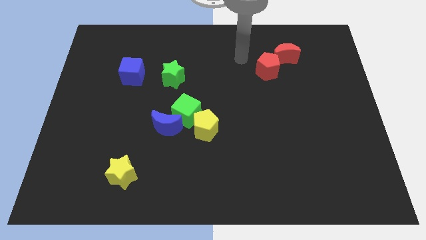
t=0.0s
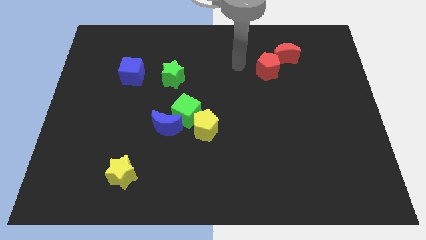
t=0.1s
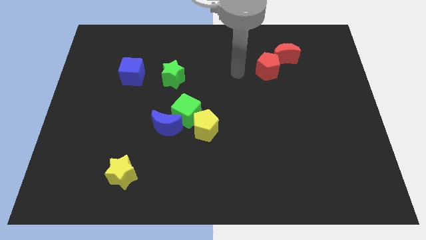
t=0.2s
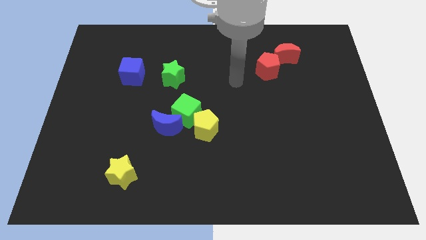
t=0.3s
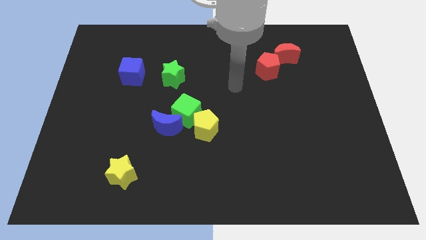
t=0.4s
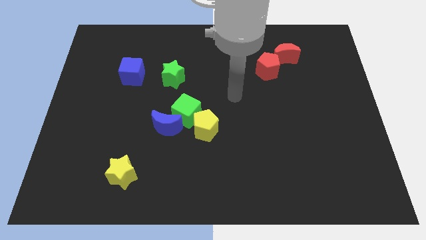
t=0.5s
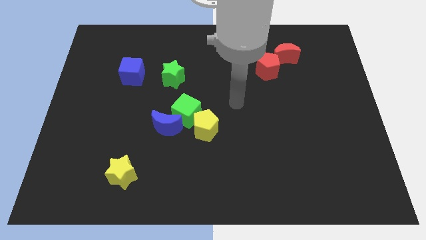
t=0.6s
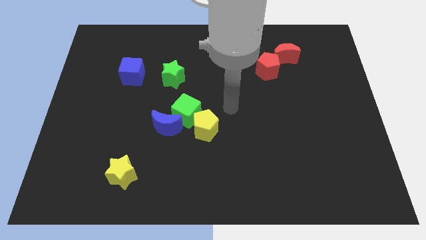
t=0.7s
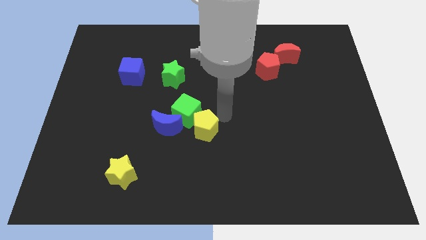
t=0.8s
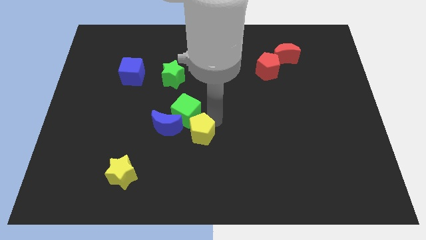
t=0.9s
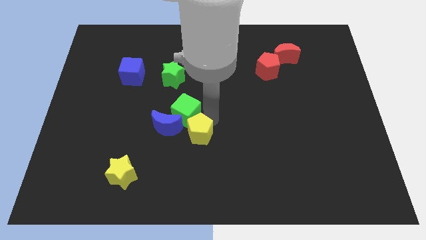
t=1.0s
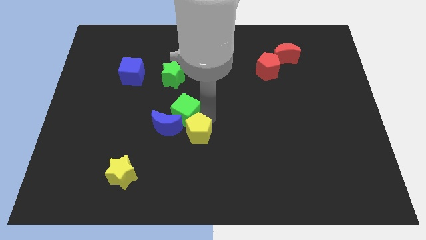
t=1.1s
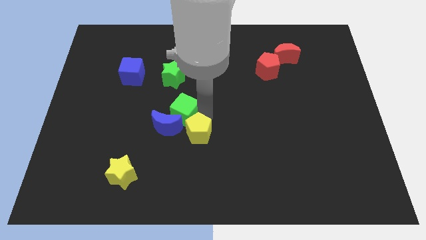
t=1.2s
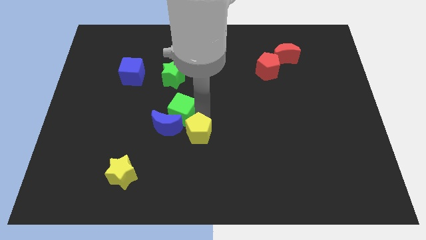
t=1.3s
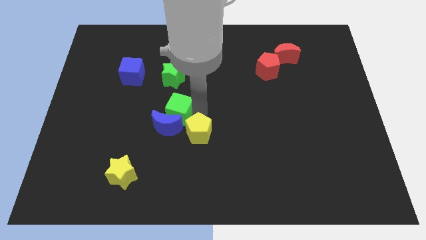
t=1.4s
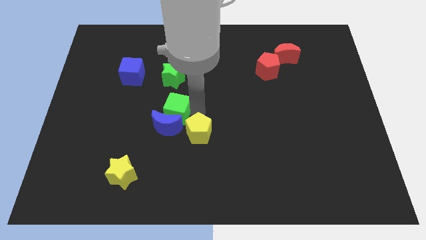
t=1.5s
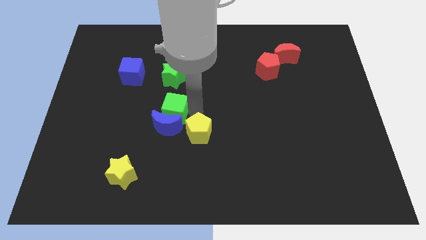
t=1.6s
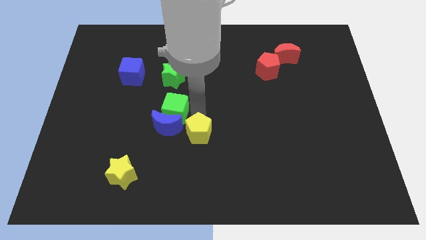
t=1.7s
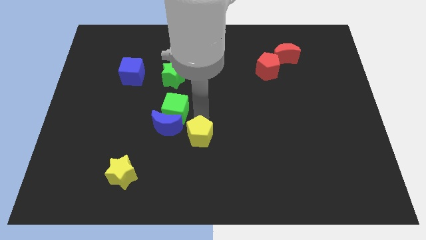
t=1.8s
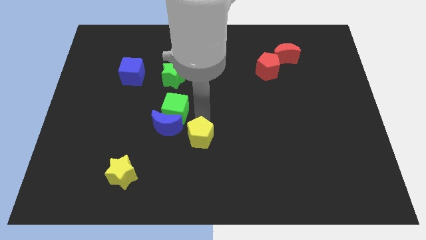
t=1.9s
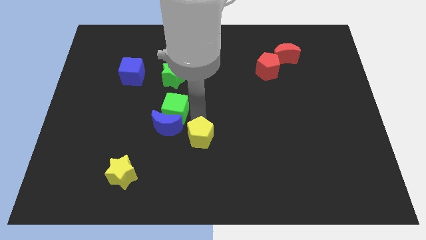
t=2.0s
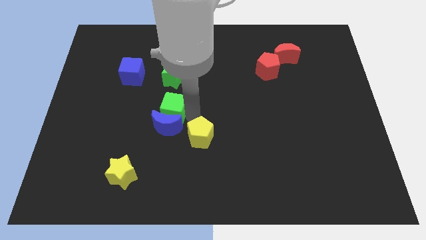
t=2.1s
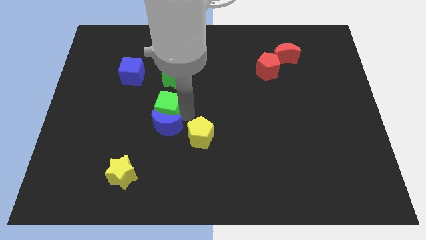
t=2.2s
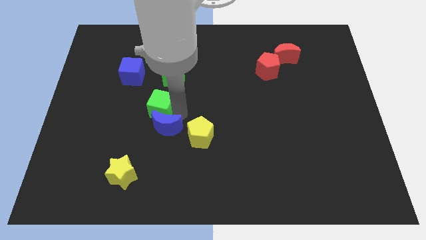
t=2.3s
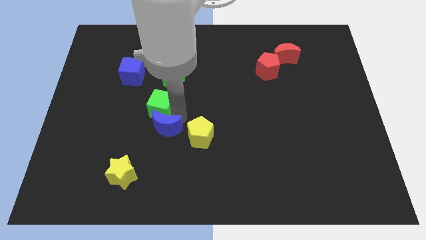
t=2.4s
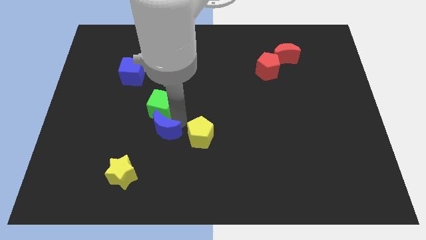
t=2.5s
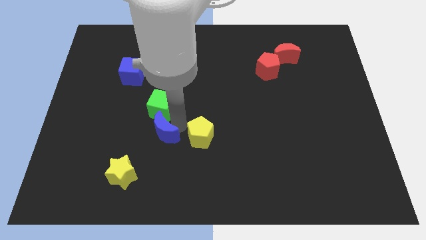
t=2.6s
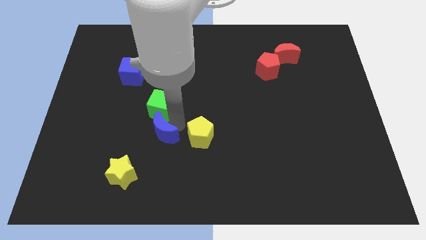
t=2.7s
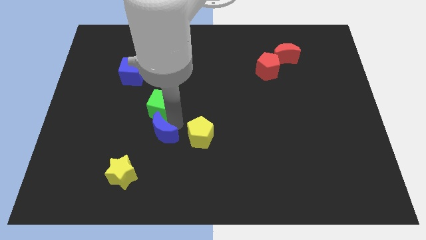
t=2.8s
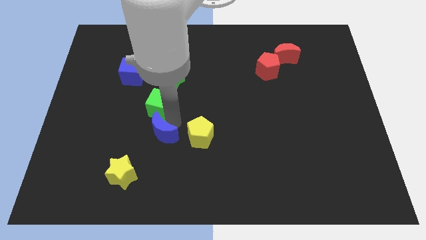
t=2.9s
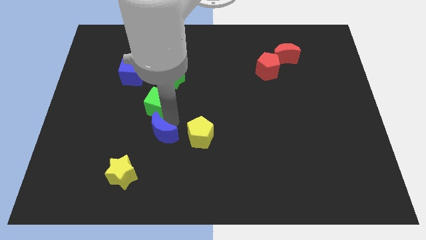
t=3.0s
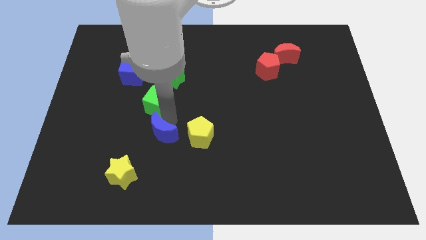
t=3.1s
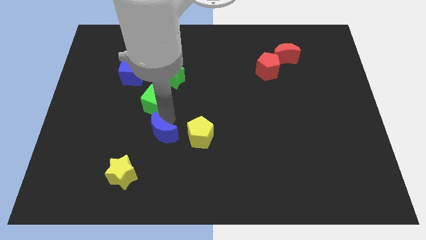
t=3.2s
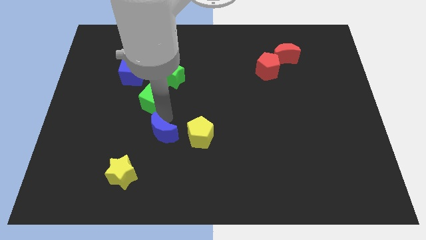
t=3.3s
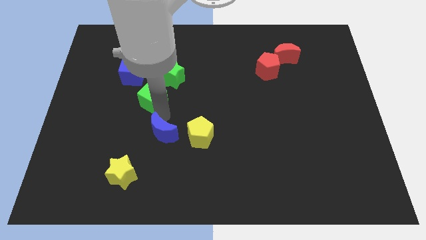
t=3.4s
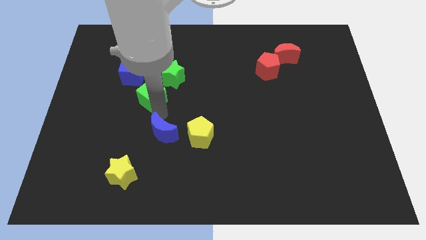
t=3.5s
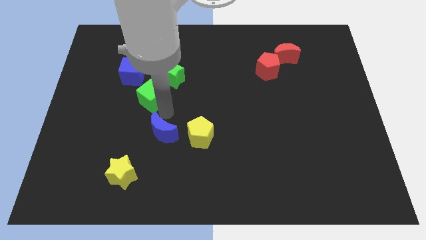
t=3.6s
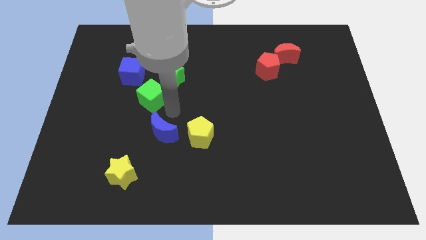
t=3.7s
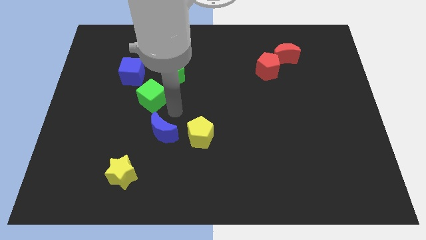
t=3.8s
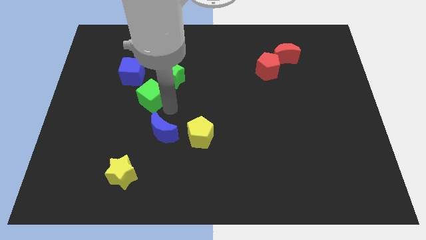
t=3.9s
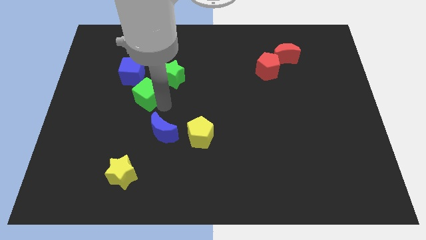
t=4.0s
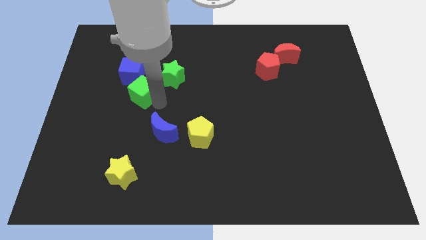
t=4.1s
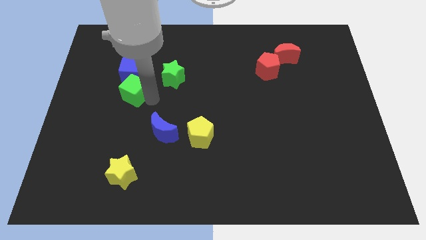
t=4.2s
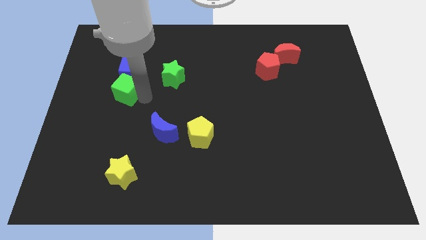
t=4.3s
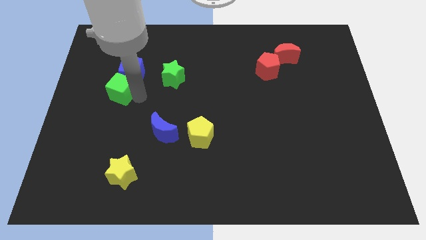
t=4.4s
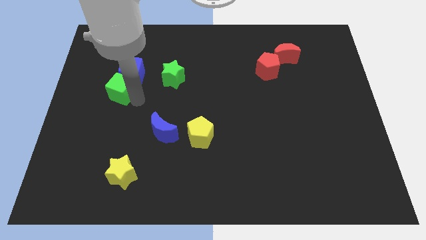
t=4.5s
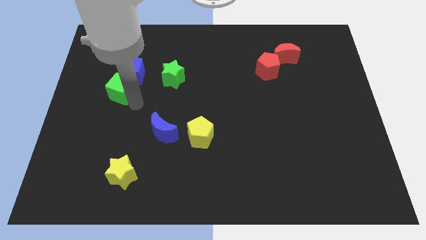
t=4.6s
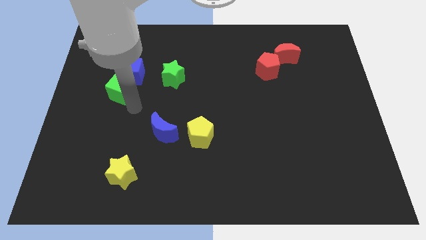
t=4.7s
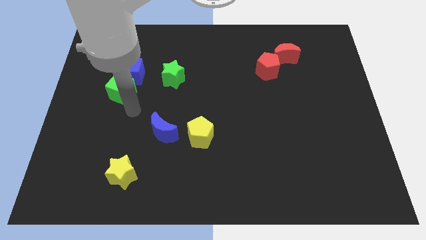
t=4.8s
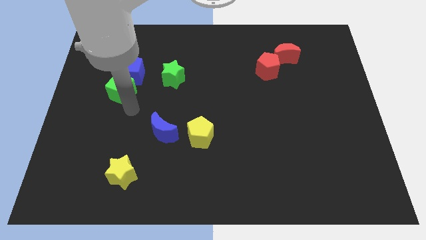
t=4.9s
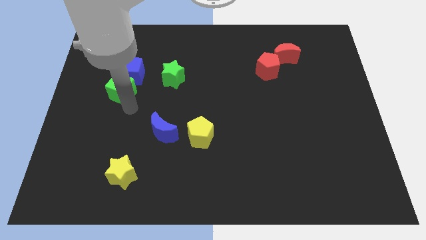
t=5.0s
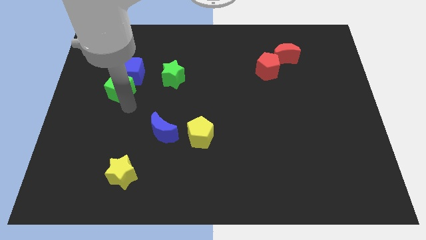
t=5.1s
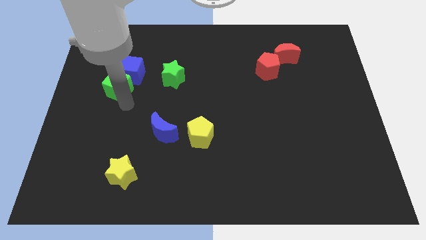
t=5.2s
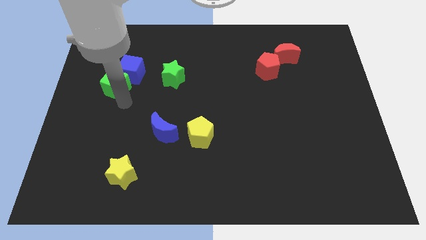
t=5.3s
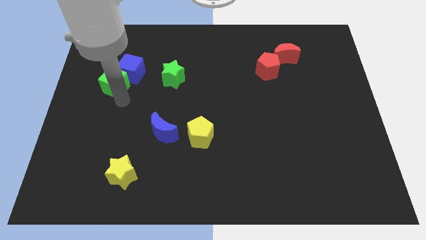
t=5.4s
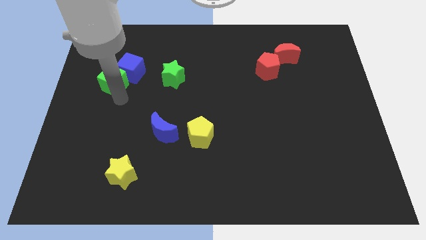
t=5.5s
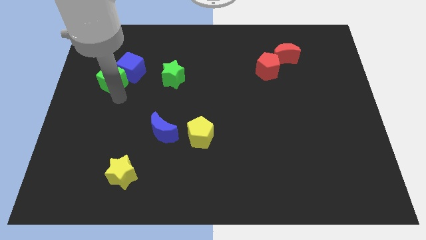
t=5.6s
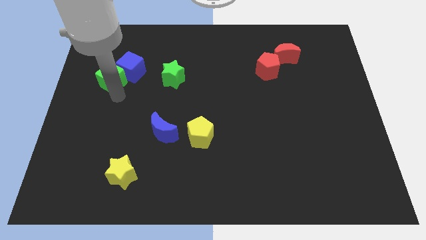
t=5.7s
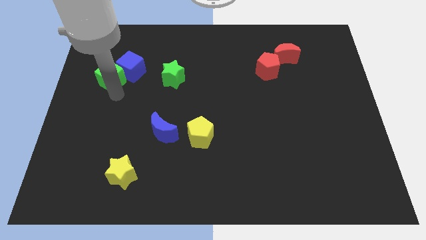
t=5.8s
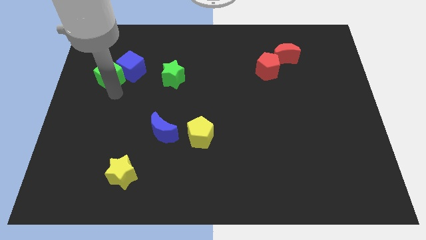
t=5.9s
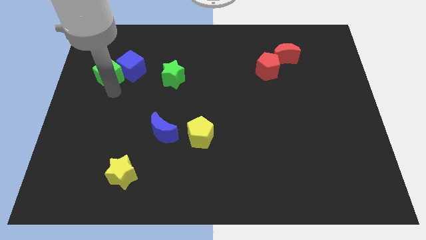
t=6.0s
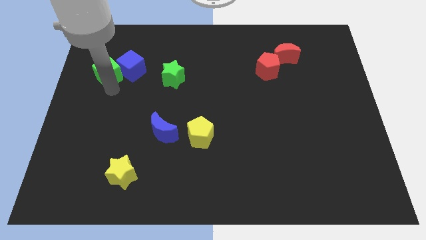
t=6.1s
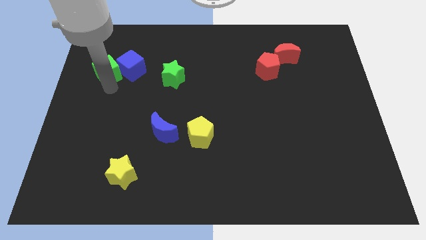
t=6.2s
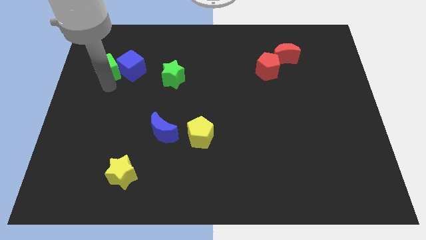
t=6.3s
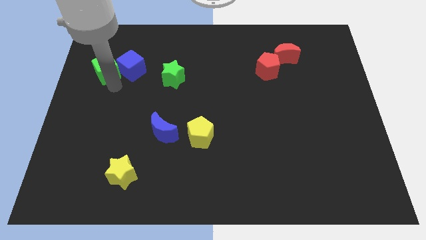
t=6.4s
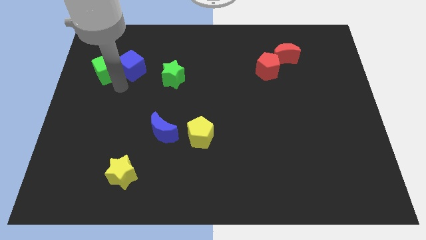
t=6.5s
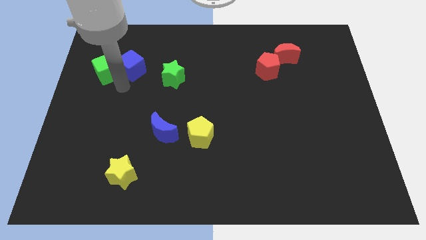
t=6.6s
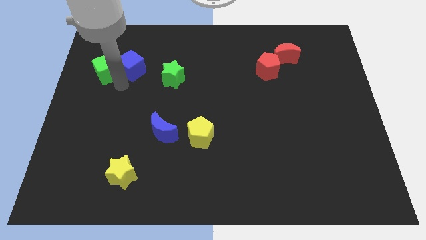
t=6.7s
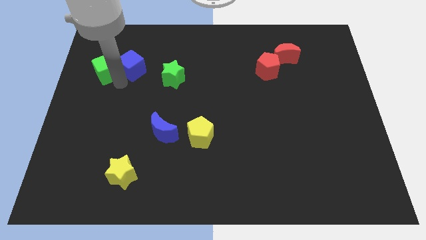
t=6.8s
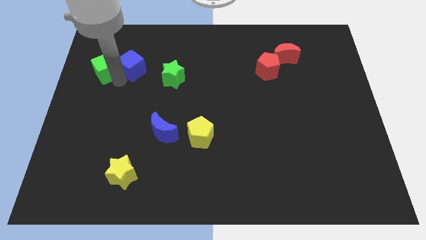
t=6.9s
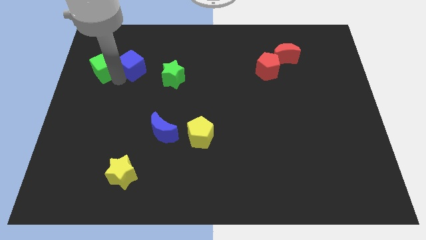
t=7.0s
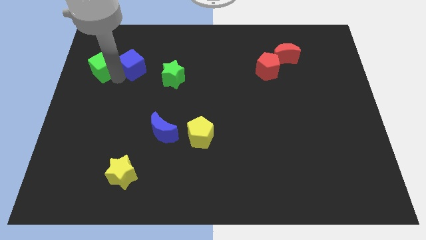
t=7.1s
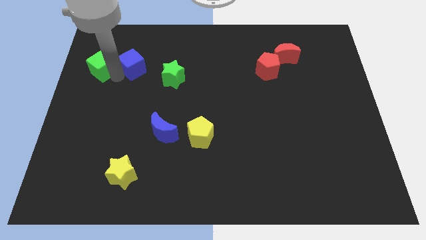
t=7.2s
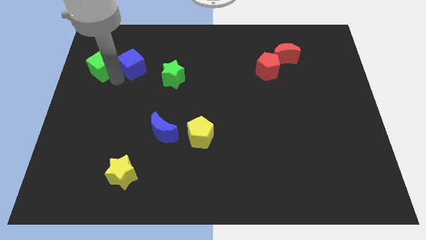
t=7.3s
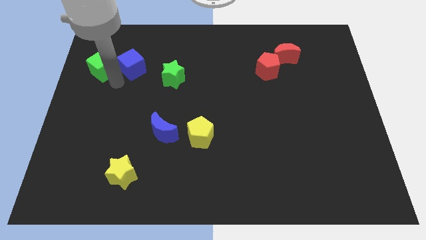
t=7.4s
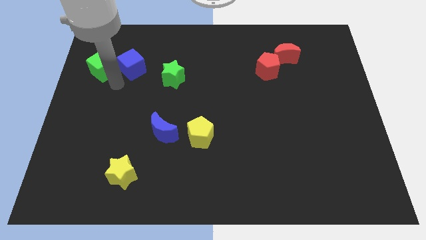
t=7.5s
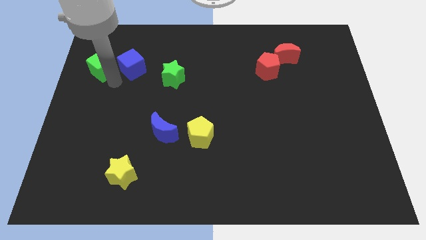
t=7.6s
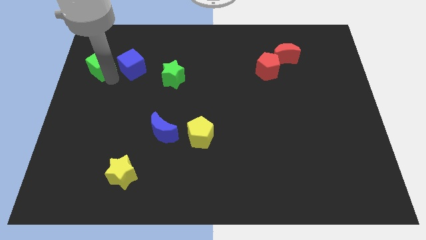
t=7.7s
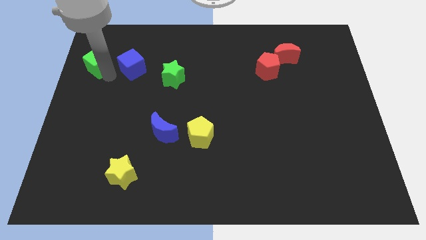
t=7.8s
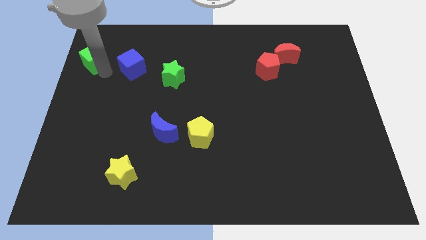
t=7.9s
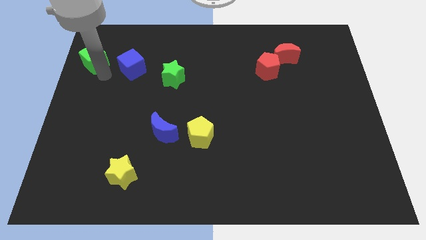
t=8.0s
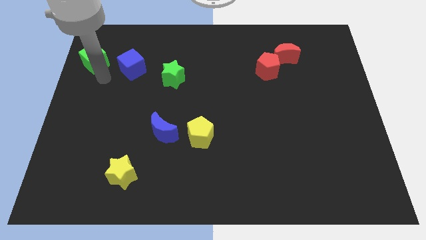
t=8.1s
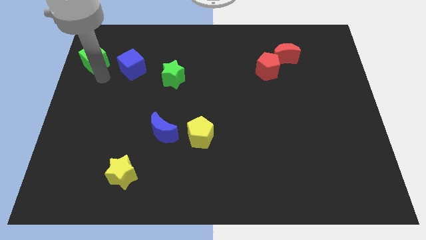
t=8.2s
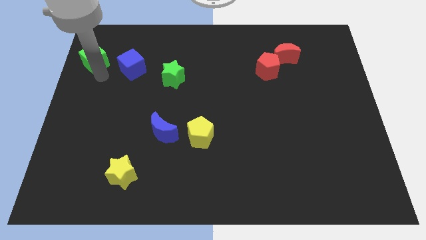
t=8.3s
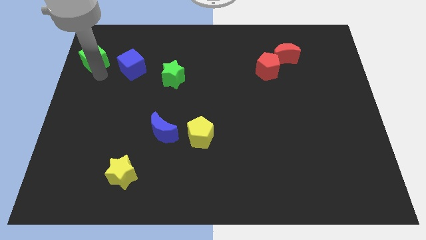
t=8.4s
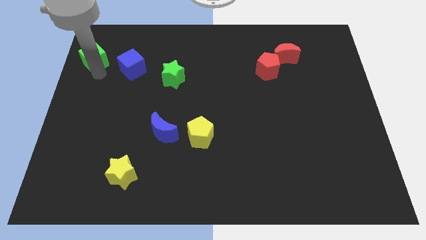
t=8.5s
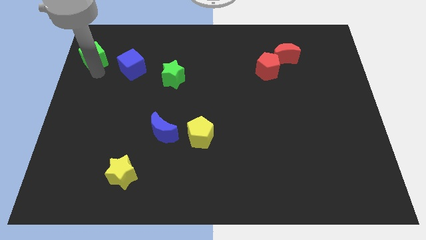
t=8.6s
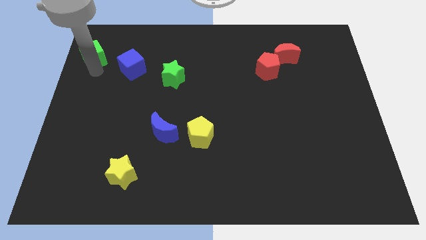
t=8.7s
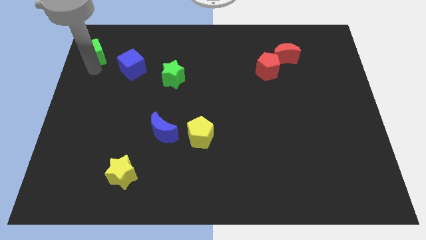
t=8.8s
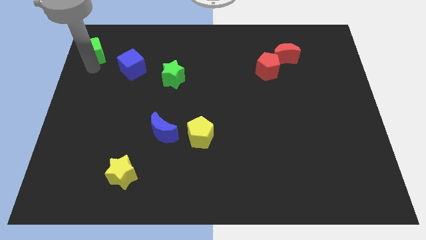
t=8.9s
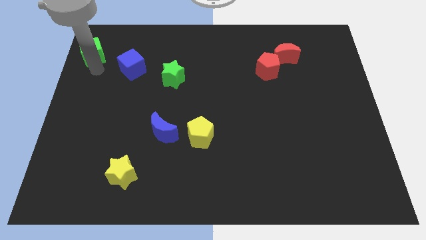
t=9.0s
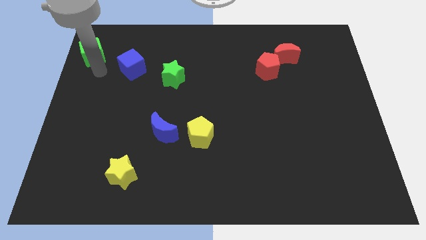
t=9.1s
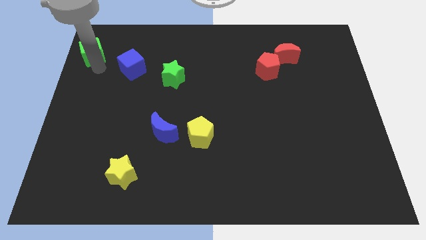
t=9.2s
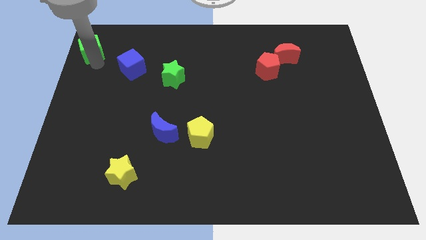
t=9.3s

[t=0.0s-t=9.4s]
put the green cube to the top left corner
